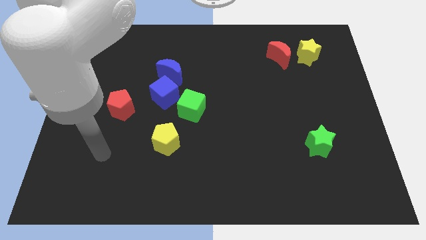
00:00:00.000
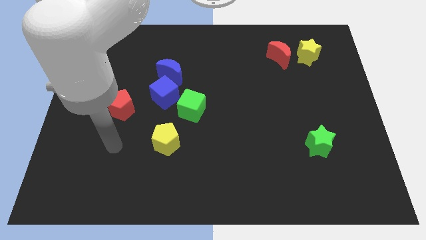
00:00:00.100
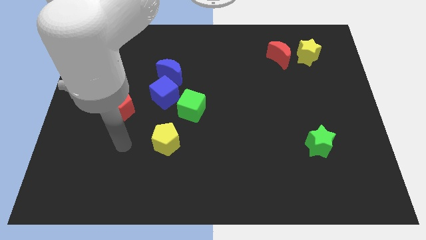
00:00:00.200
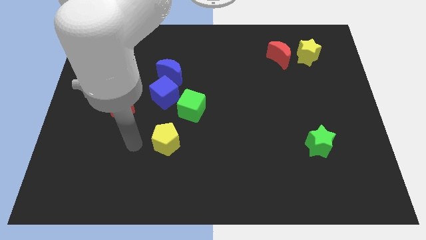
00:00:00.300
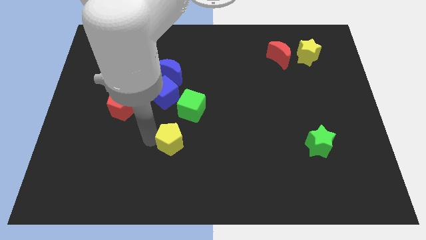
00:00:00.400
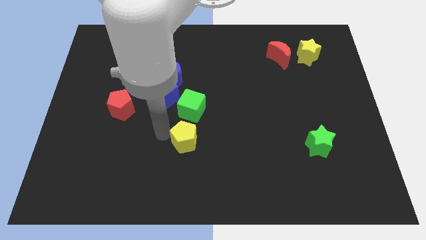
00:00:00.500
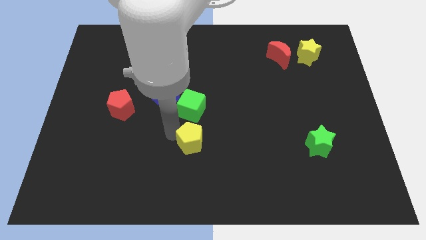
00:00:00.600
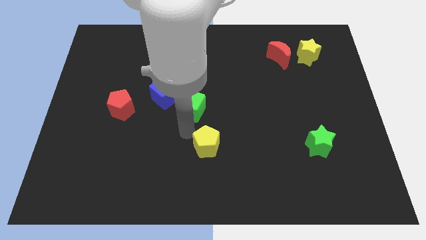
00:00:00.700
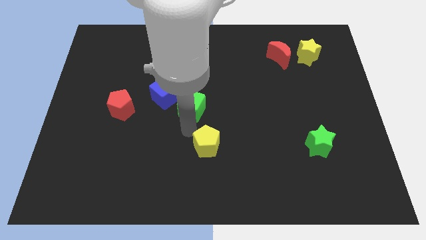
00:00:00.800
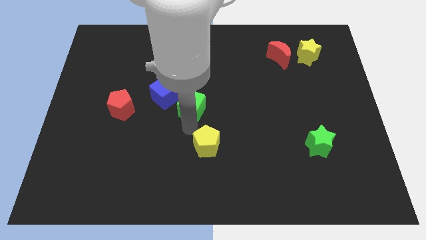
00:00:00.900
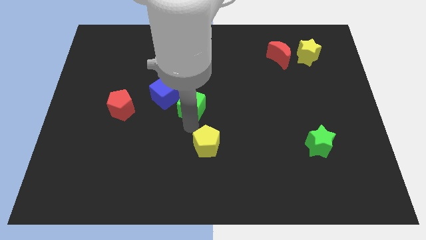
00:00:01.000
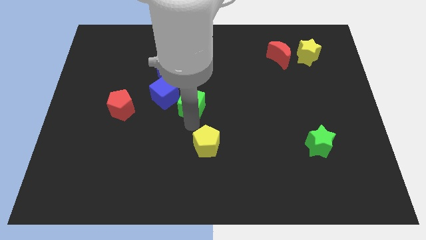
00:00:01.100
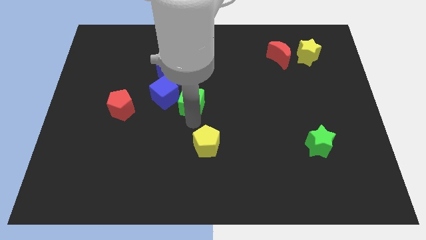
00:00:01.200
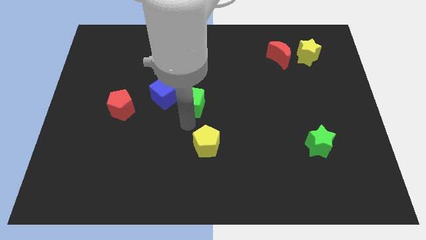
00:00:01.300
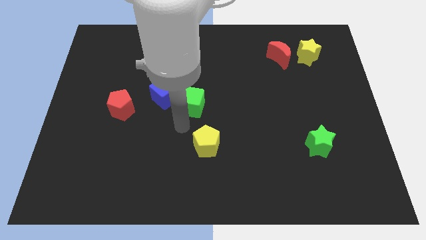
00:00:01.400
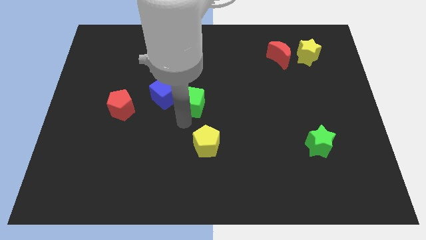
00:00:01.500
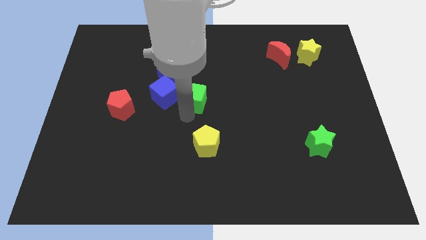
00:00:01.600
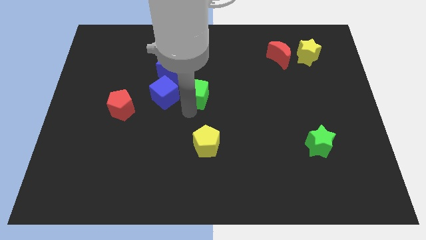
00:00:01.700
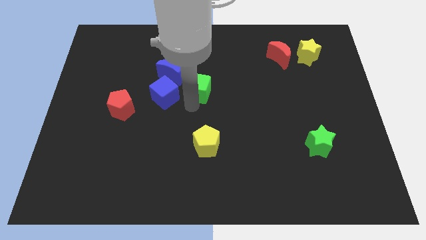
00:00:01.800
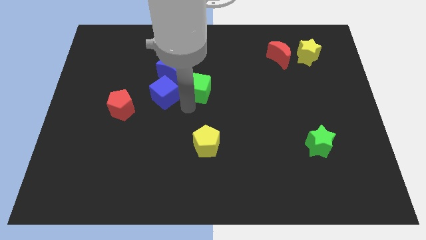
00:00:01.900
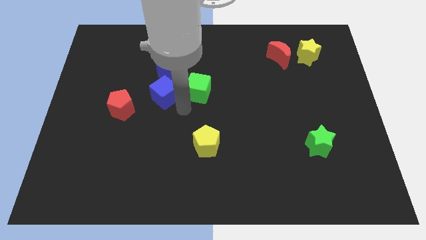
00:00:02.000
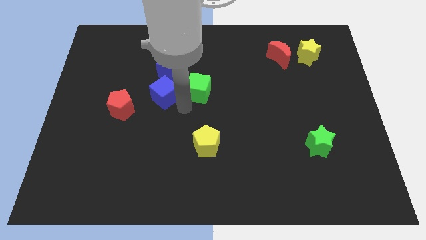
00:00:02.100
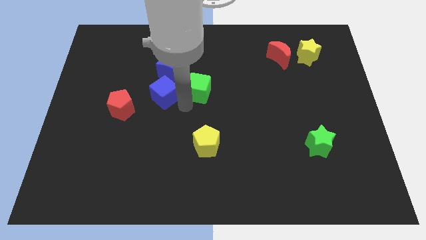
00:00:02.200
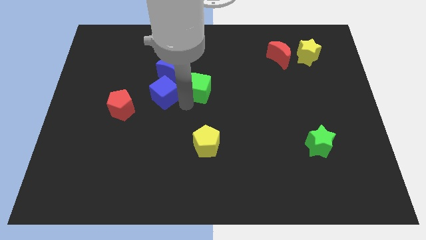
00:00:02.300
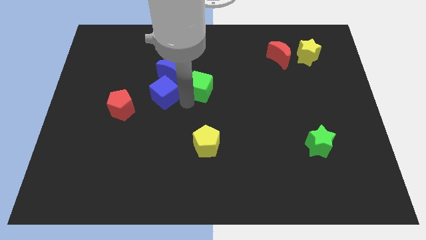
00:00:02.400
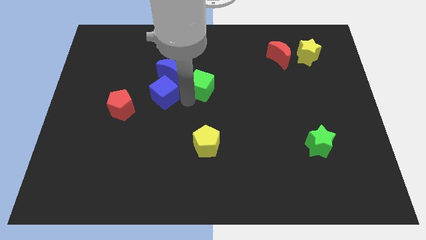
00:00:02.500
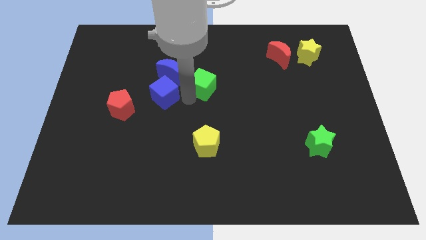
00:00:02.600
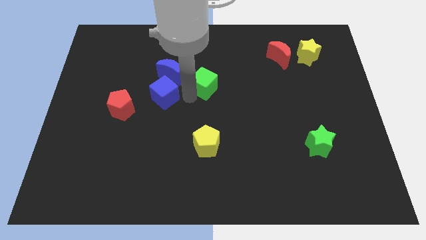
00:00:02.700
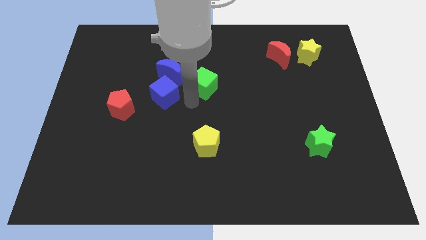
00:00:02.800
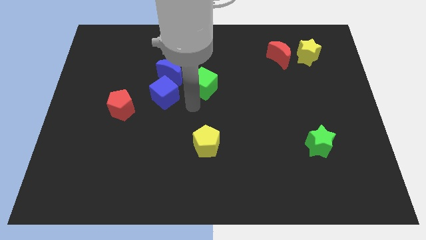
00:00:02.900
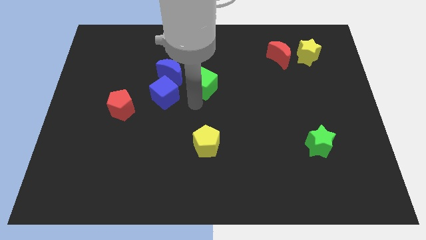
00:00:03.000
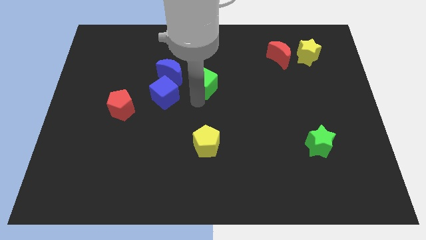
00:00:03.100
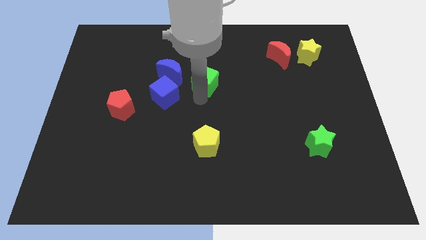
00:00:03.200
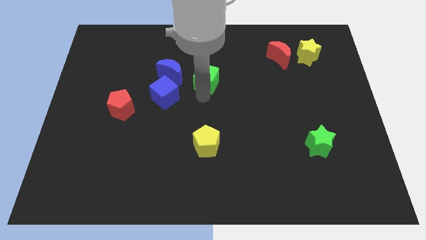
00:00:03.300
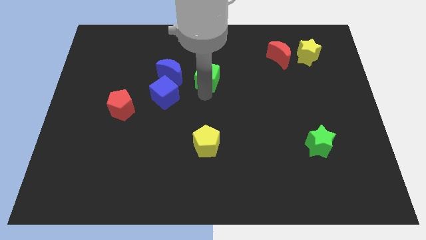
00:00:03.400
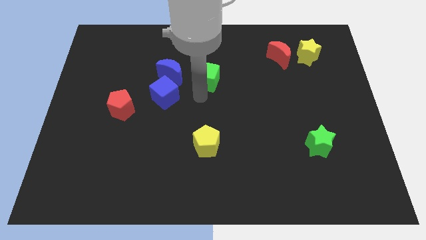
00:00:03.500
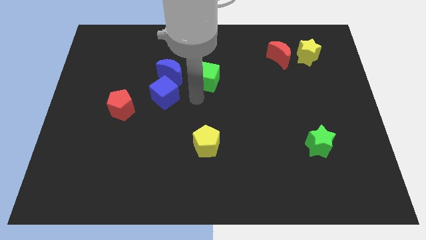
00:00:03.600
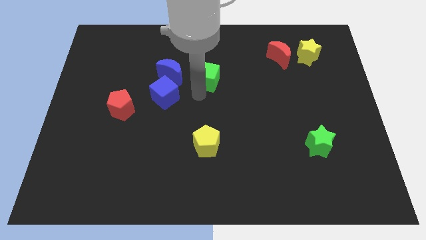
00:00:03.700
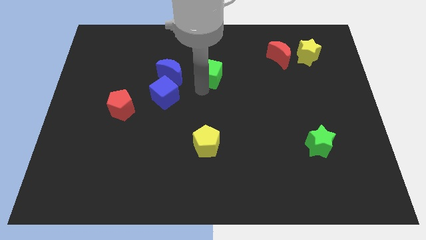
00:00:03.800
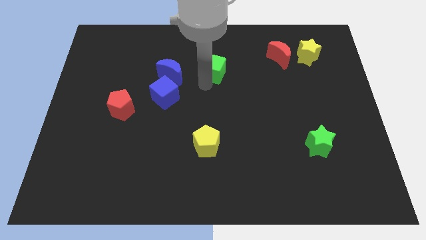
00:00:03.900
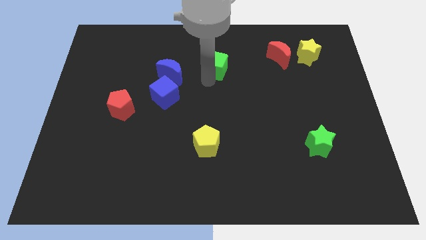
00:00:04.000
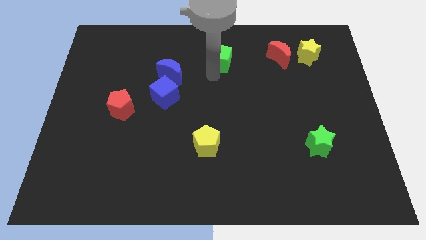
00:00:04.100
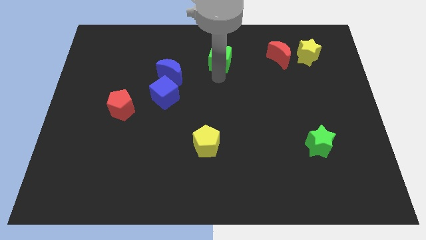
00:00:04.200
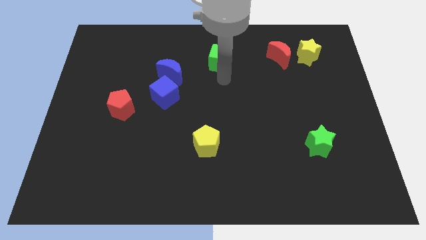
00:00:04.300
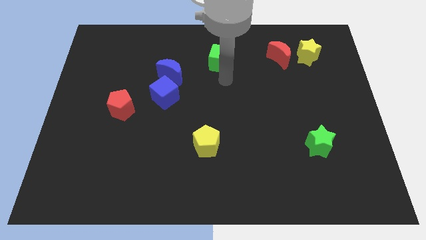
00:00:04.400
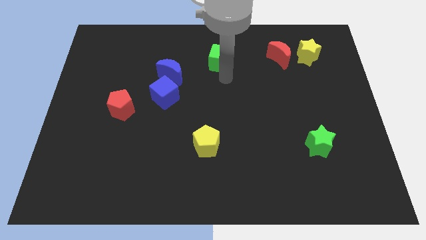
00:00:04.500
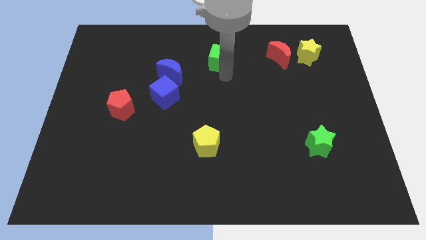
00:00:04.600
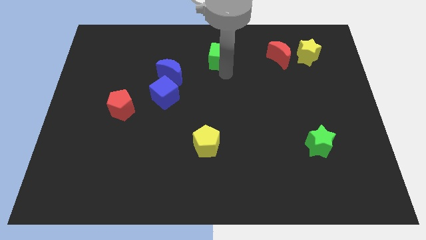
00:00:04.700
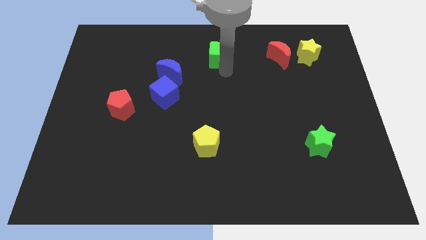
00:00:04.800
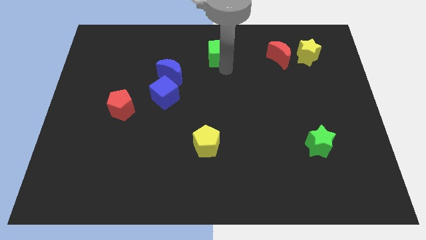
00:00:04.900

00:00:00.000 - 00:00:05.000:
put the green cube to the towards your base

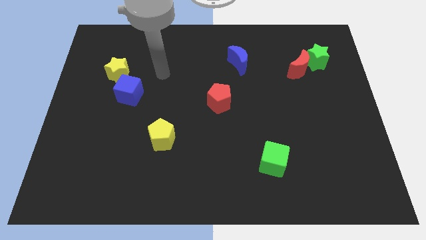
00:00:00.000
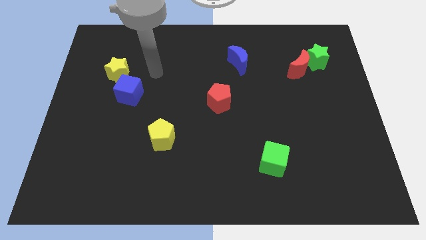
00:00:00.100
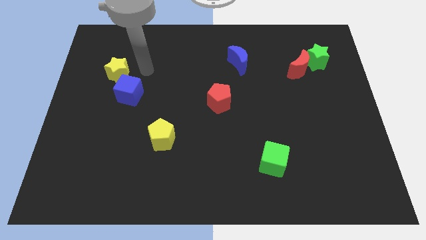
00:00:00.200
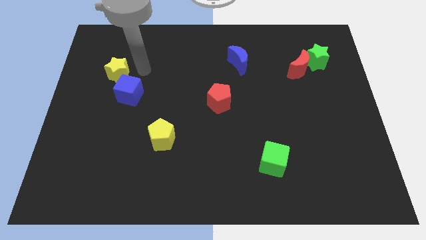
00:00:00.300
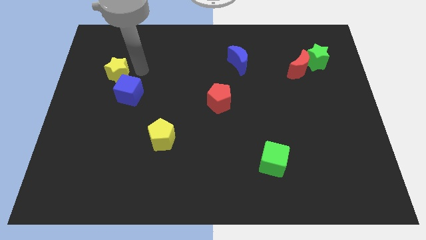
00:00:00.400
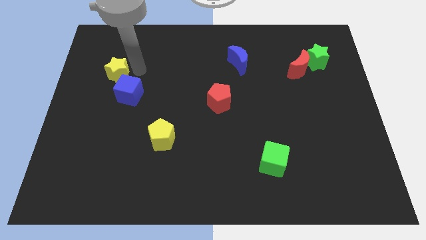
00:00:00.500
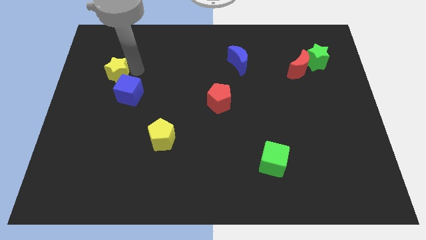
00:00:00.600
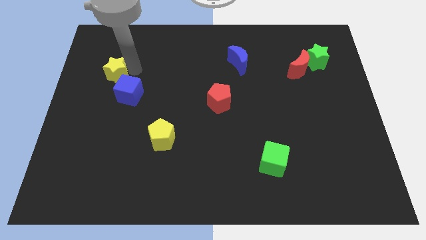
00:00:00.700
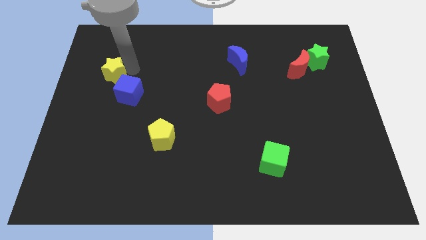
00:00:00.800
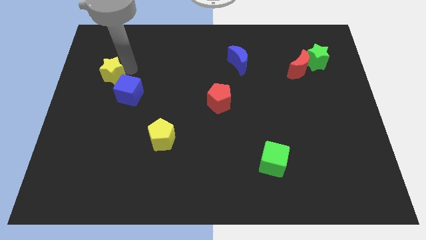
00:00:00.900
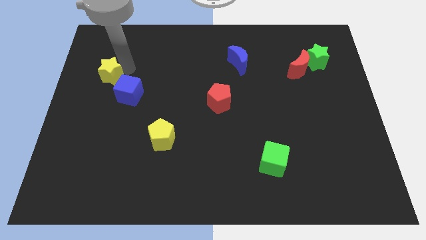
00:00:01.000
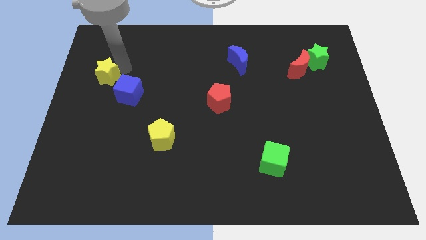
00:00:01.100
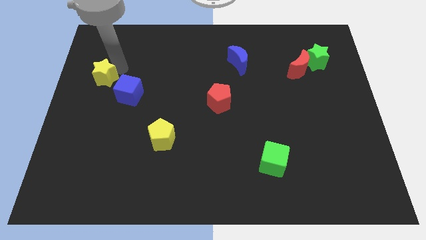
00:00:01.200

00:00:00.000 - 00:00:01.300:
slide the yellow star to the center left
